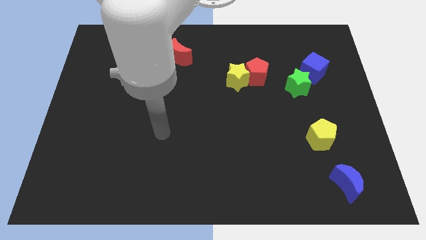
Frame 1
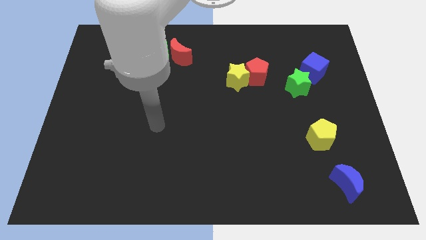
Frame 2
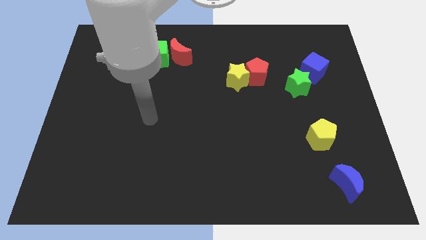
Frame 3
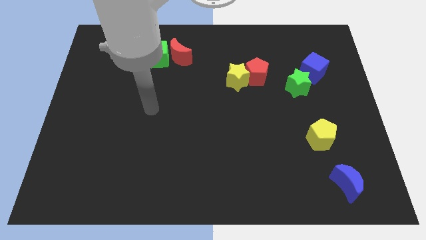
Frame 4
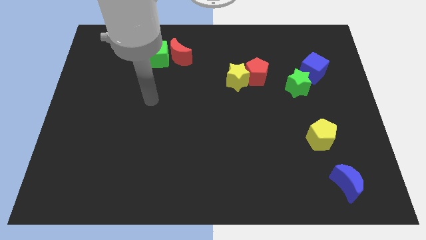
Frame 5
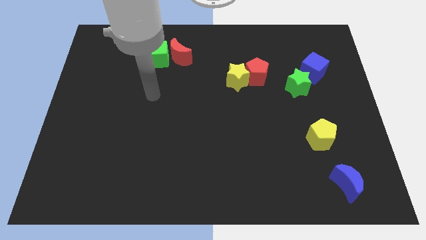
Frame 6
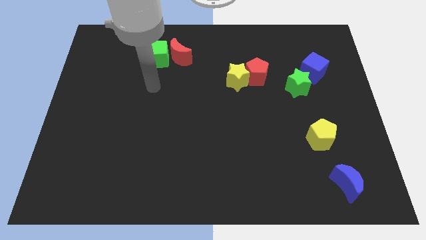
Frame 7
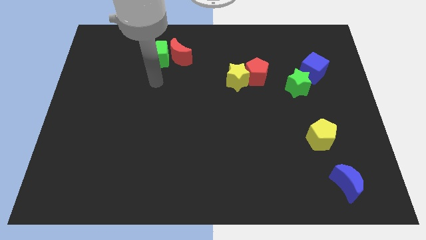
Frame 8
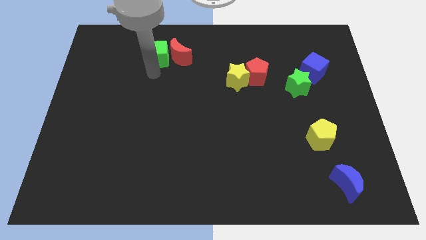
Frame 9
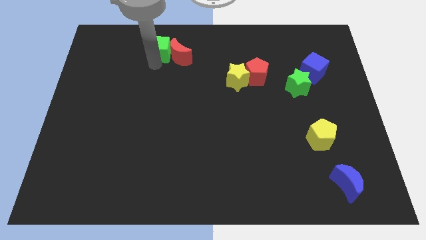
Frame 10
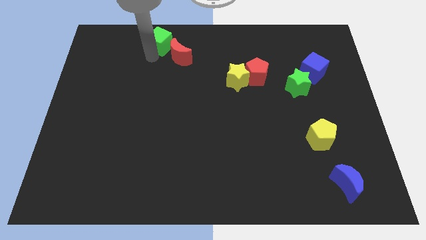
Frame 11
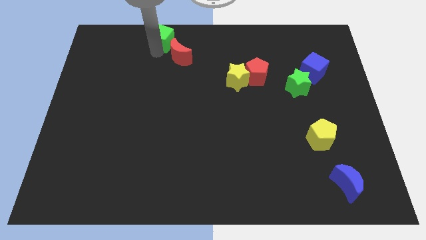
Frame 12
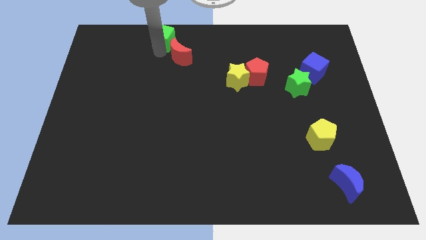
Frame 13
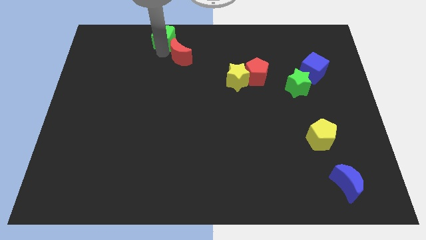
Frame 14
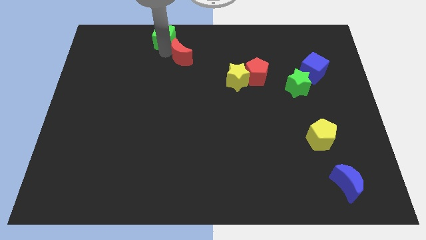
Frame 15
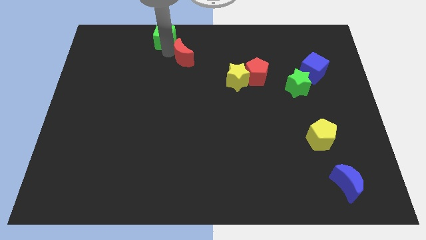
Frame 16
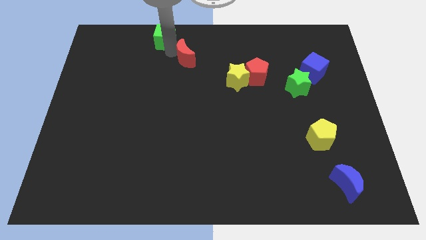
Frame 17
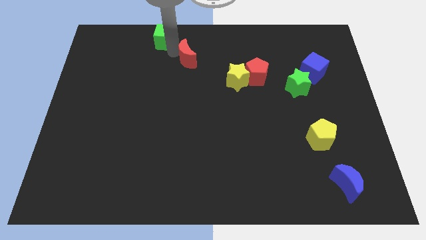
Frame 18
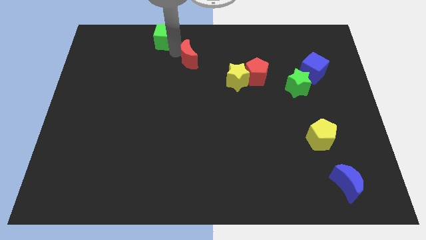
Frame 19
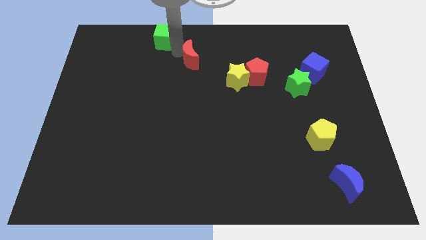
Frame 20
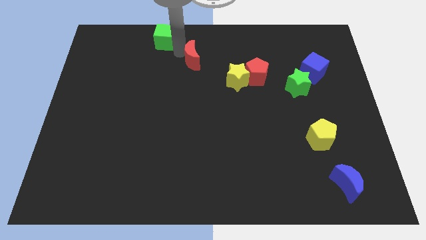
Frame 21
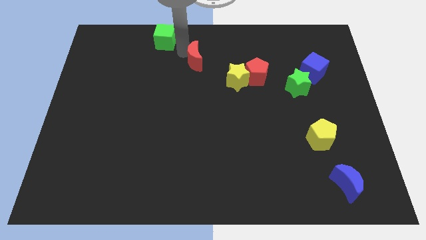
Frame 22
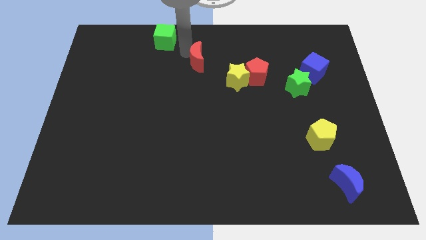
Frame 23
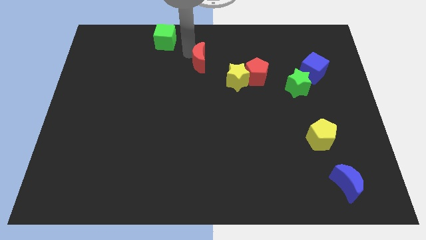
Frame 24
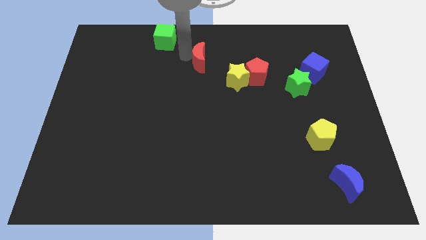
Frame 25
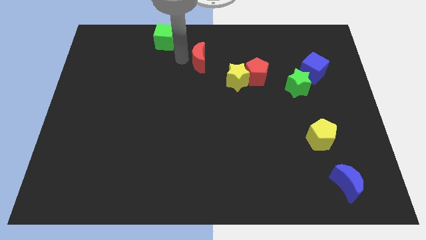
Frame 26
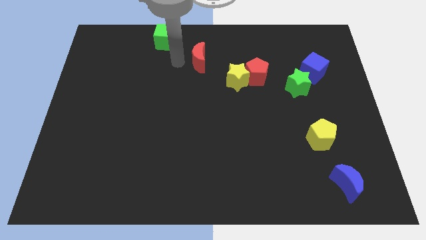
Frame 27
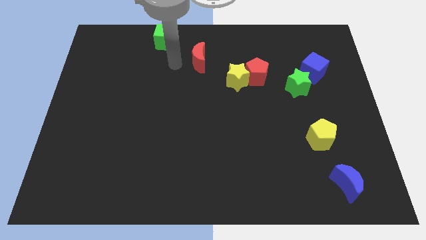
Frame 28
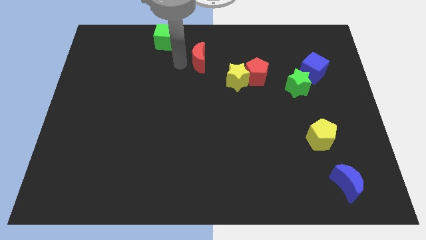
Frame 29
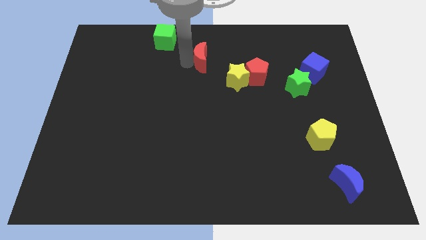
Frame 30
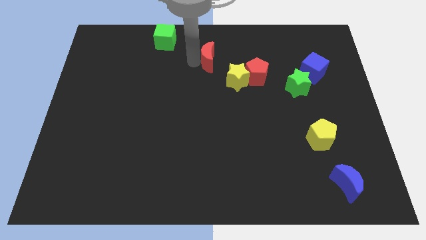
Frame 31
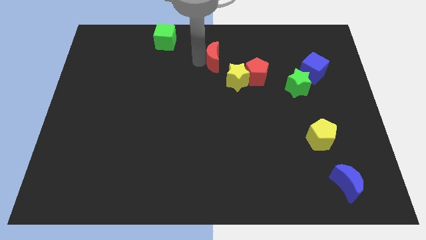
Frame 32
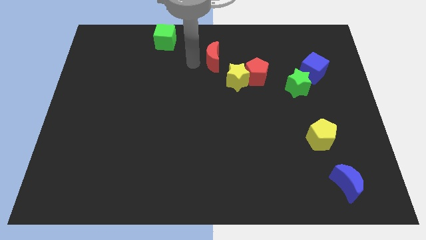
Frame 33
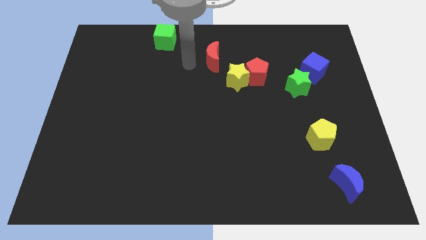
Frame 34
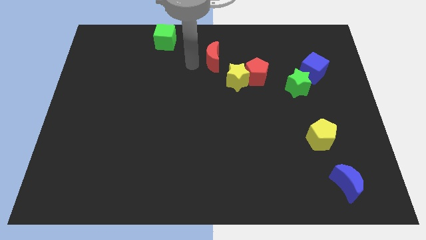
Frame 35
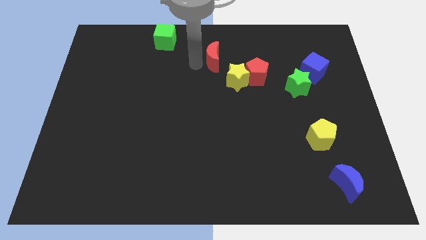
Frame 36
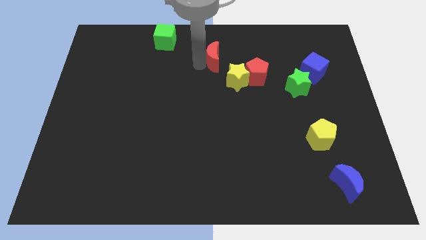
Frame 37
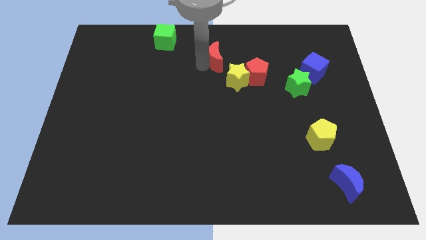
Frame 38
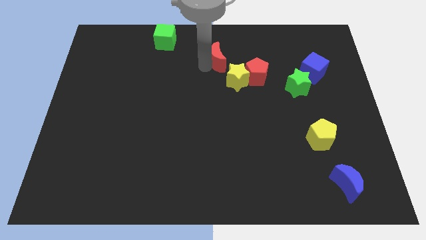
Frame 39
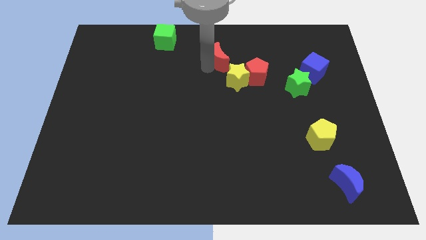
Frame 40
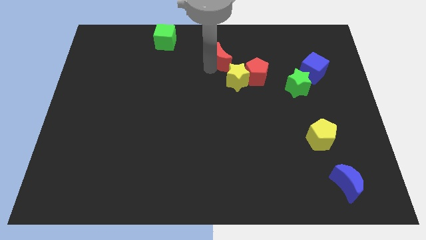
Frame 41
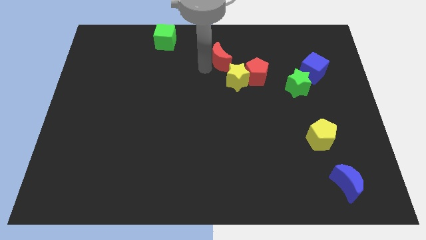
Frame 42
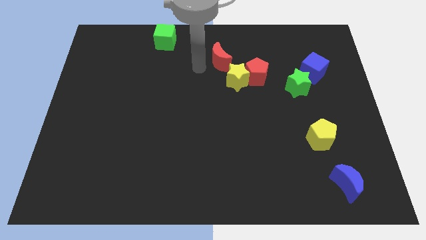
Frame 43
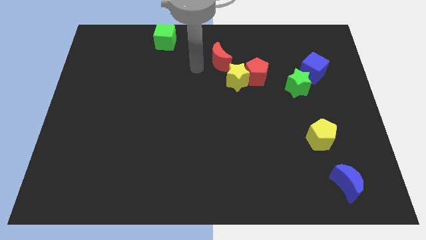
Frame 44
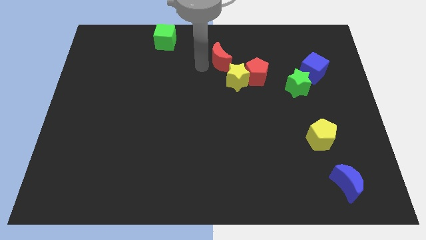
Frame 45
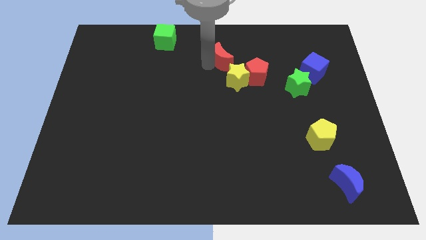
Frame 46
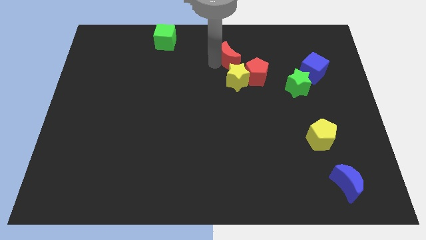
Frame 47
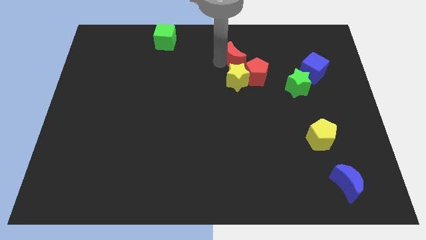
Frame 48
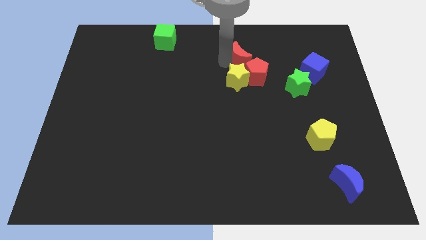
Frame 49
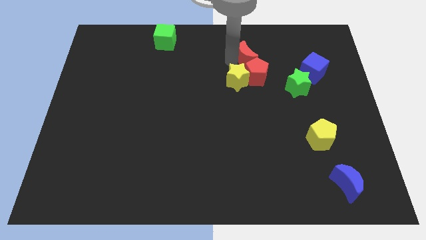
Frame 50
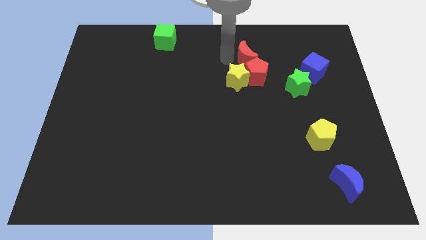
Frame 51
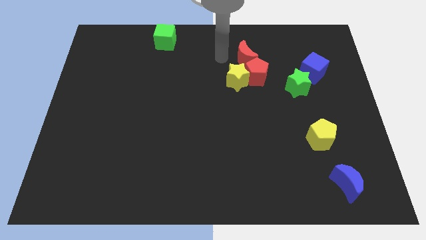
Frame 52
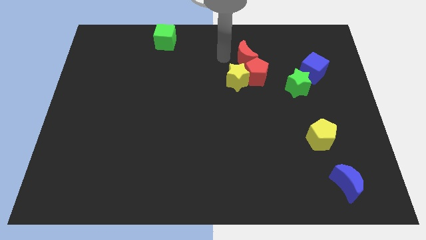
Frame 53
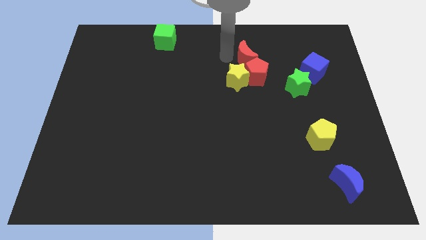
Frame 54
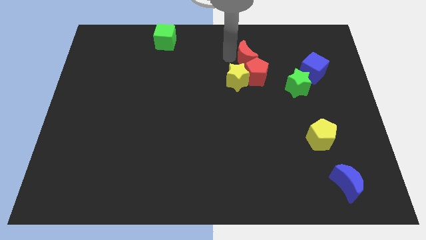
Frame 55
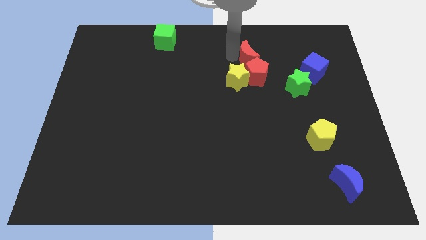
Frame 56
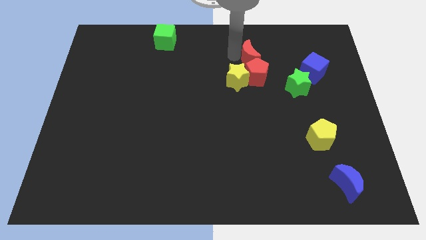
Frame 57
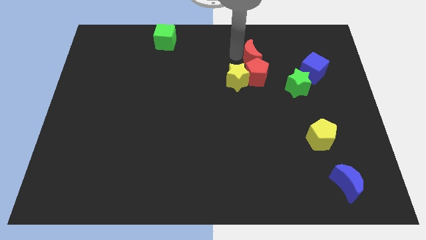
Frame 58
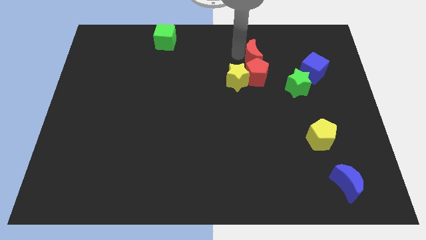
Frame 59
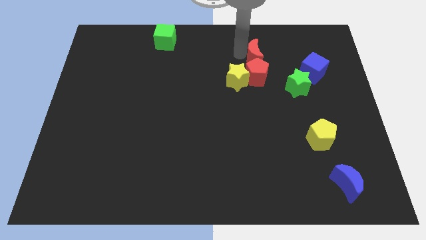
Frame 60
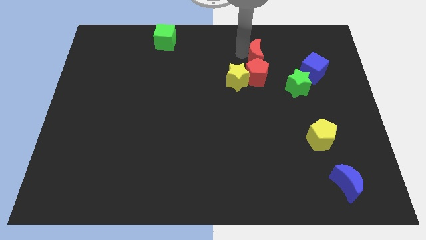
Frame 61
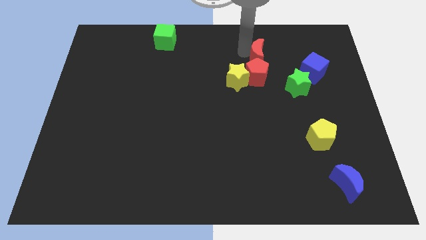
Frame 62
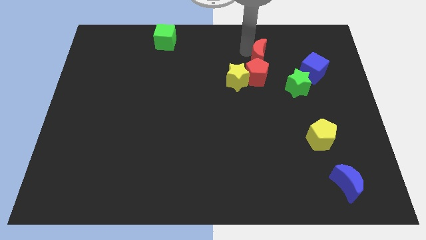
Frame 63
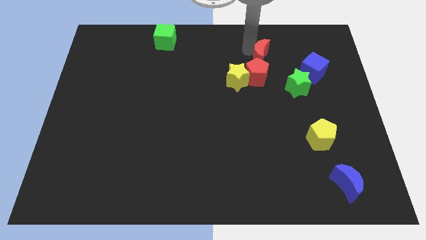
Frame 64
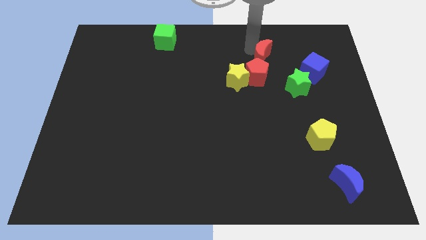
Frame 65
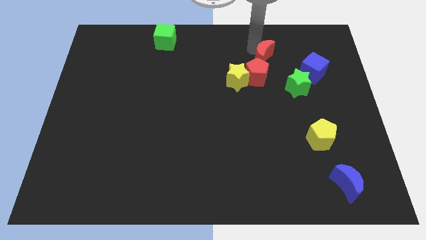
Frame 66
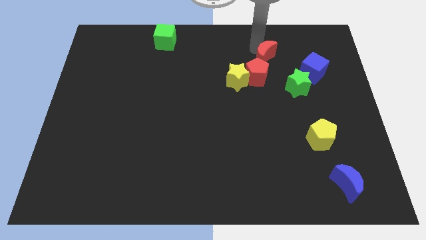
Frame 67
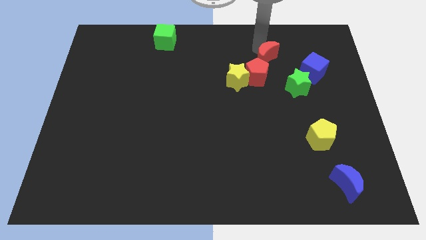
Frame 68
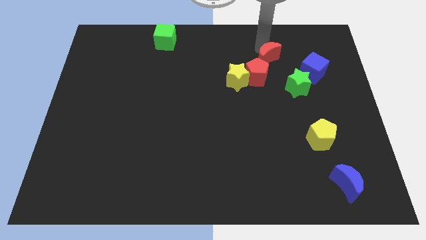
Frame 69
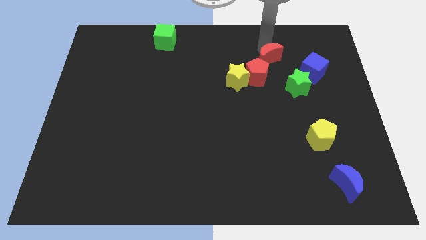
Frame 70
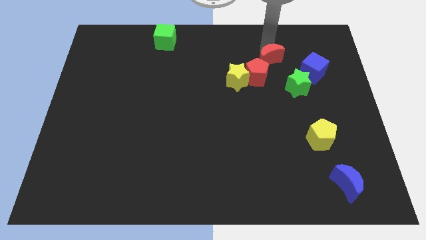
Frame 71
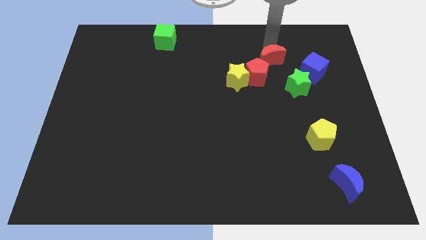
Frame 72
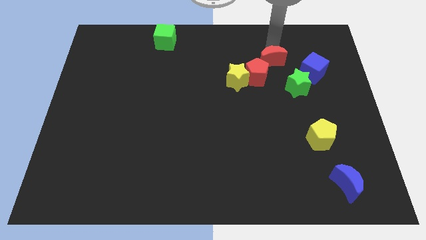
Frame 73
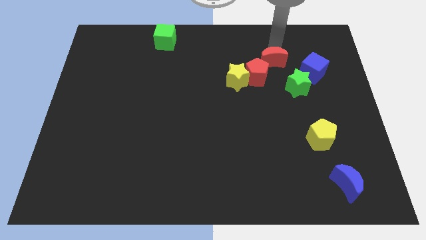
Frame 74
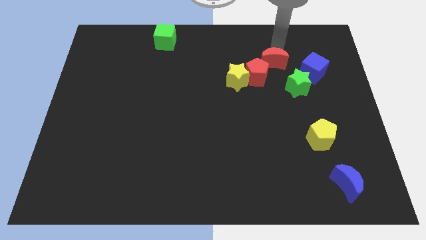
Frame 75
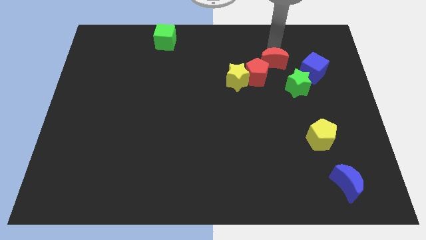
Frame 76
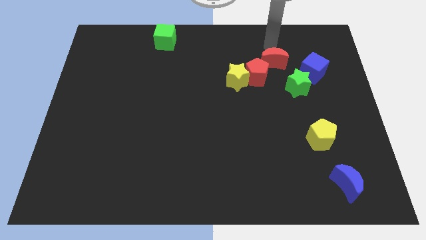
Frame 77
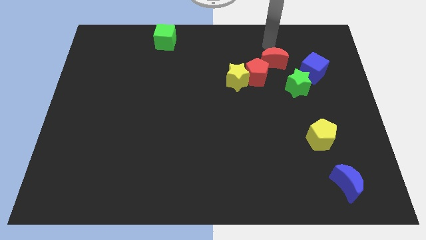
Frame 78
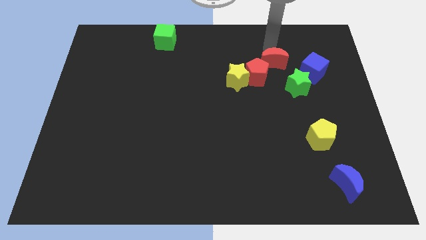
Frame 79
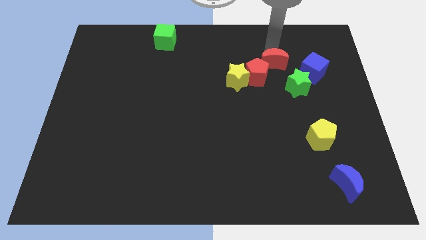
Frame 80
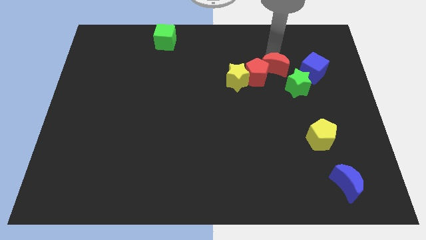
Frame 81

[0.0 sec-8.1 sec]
put the red moon to the right side of the yellow star
